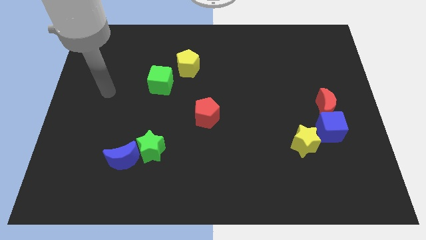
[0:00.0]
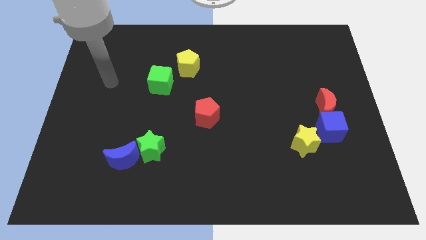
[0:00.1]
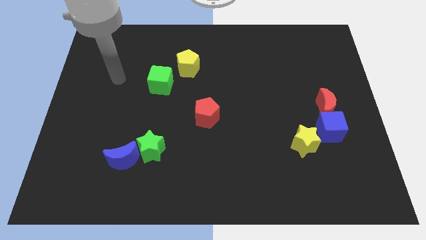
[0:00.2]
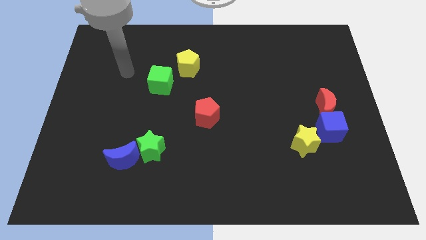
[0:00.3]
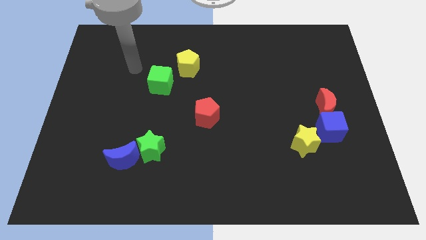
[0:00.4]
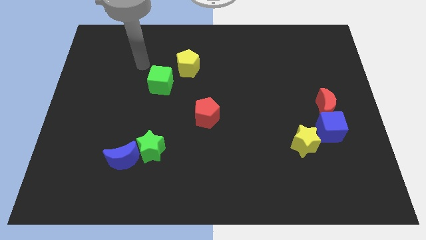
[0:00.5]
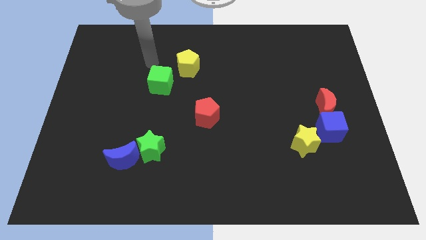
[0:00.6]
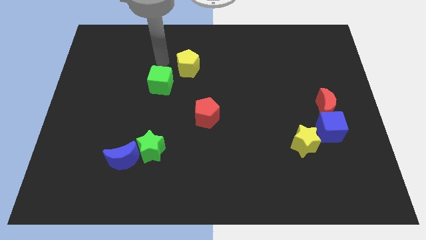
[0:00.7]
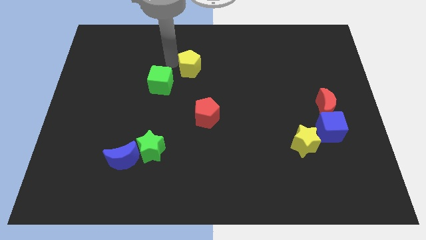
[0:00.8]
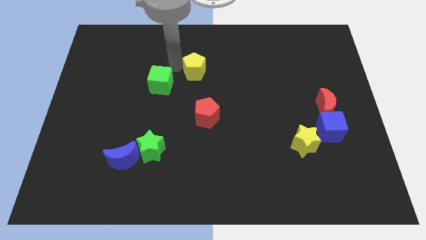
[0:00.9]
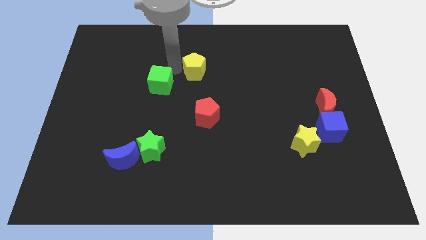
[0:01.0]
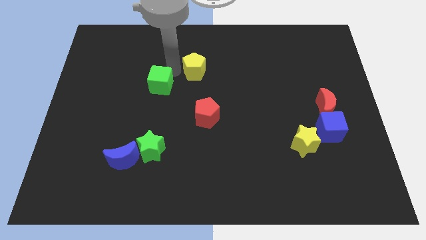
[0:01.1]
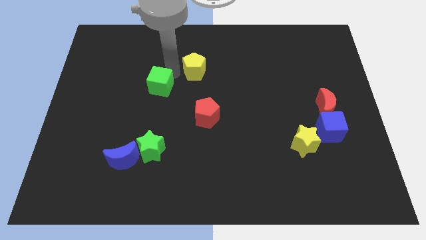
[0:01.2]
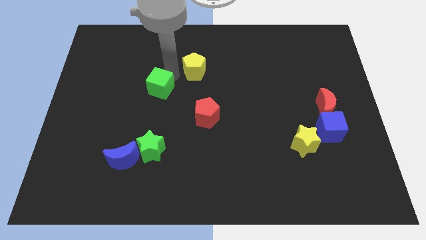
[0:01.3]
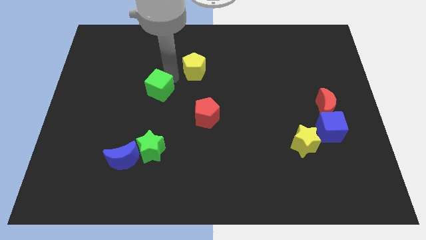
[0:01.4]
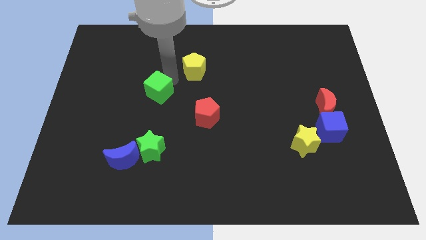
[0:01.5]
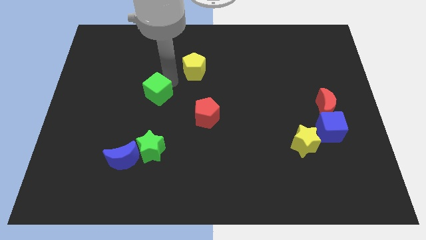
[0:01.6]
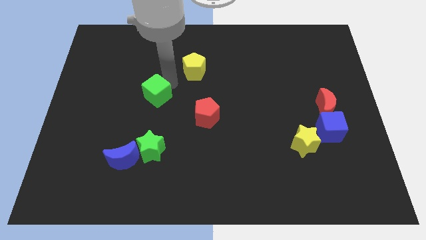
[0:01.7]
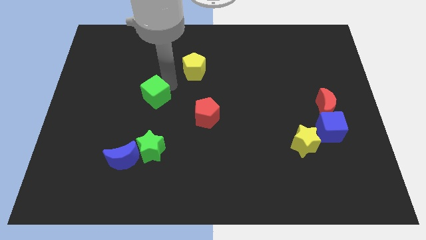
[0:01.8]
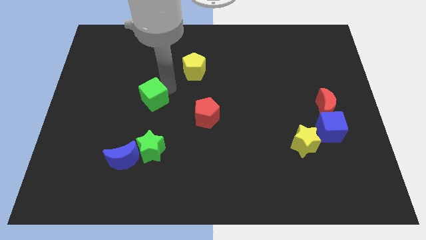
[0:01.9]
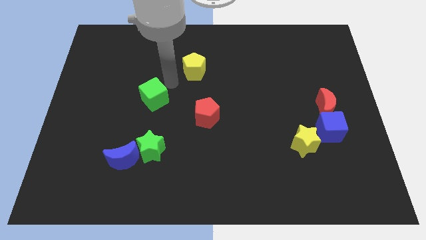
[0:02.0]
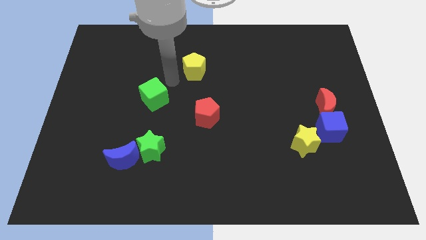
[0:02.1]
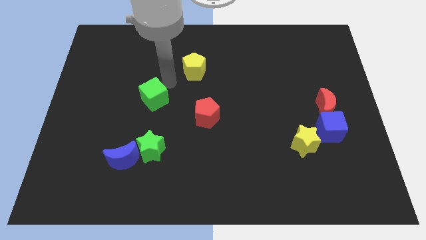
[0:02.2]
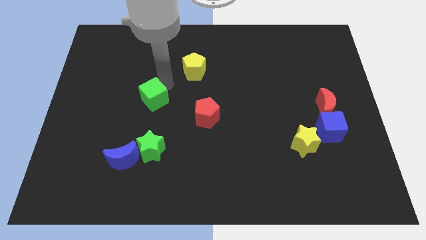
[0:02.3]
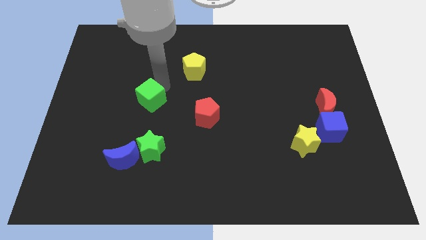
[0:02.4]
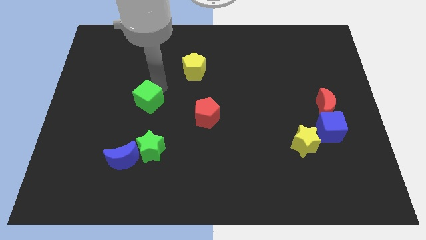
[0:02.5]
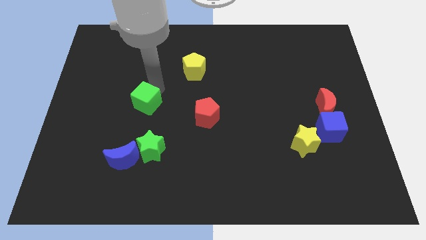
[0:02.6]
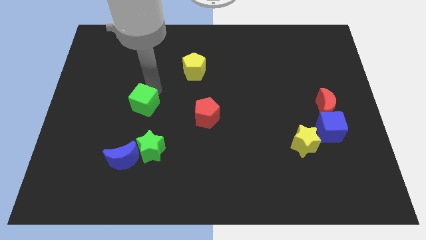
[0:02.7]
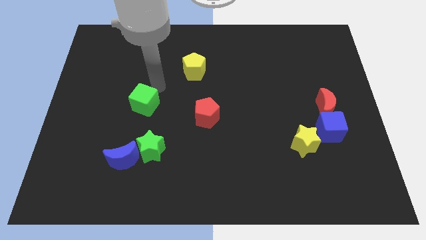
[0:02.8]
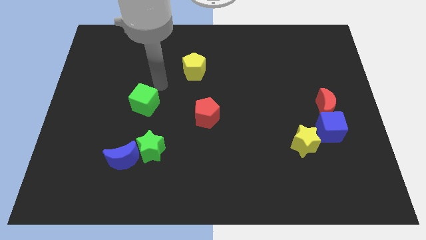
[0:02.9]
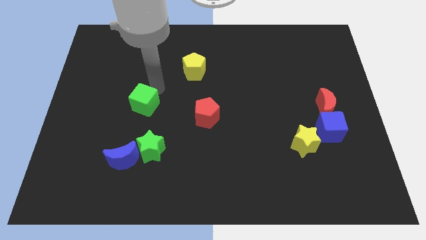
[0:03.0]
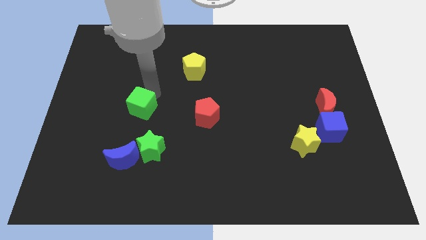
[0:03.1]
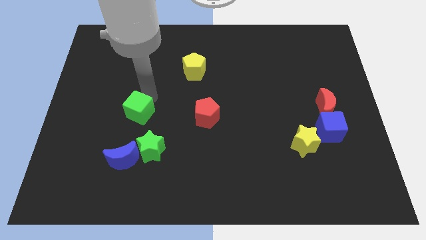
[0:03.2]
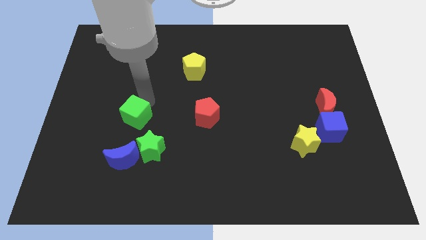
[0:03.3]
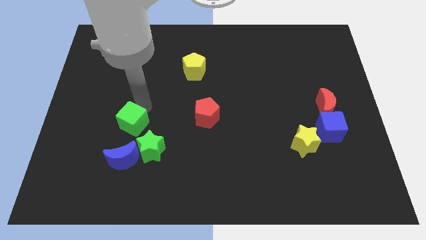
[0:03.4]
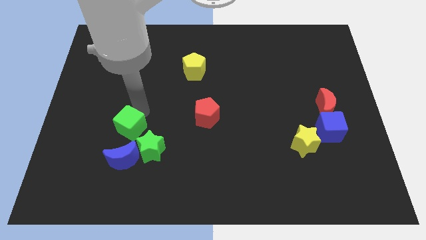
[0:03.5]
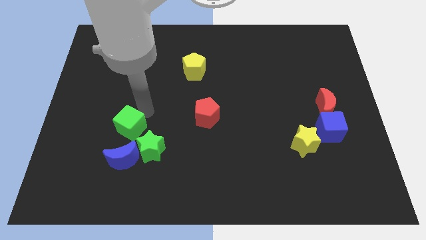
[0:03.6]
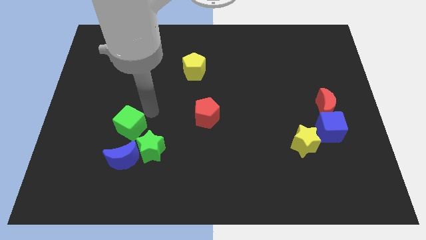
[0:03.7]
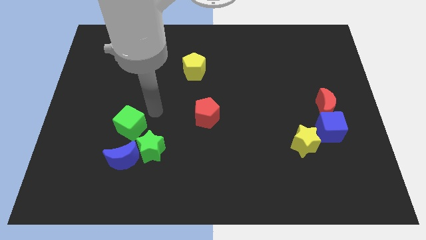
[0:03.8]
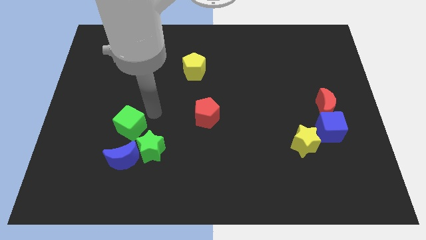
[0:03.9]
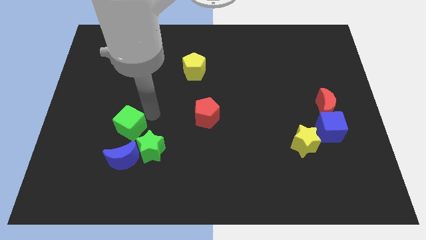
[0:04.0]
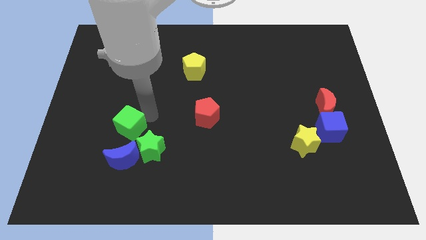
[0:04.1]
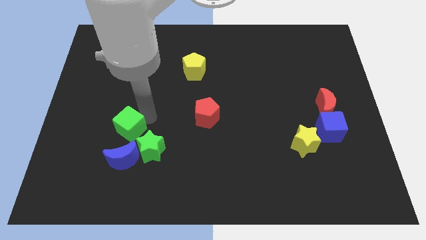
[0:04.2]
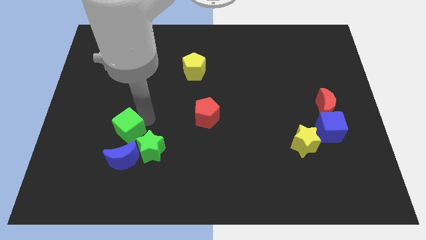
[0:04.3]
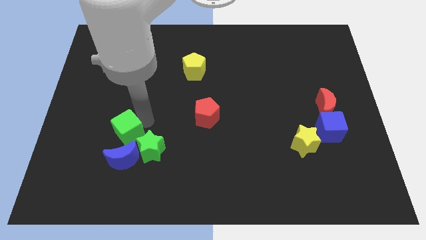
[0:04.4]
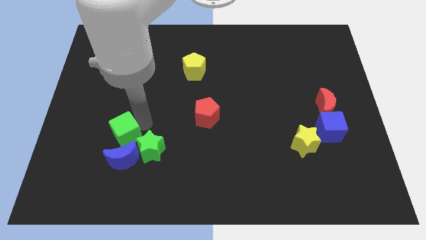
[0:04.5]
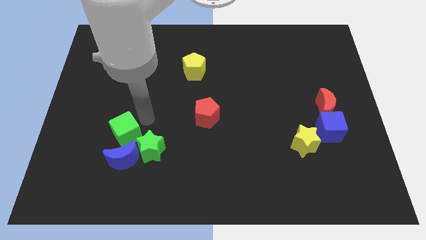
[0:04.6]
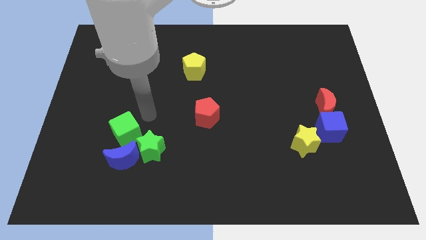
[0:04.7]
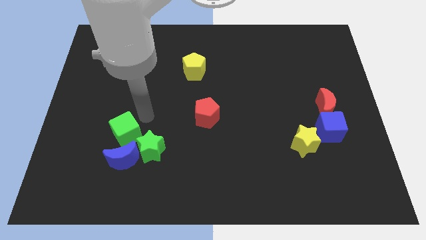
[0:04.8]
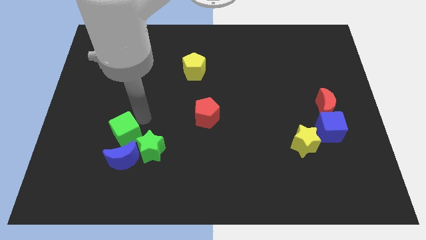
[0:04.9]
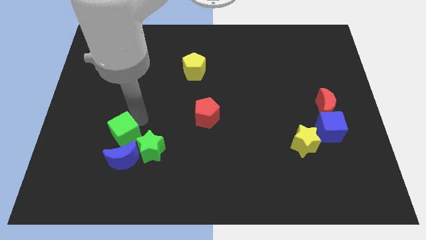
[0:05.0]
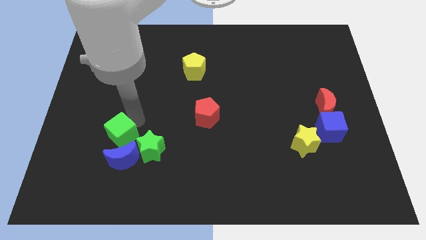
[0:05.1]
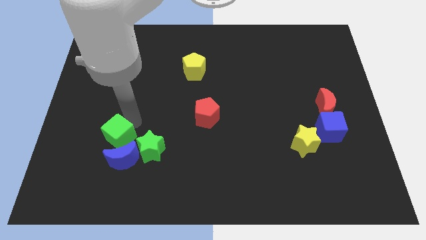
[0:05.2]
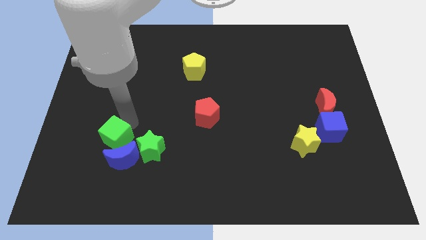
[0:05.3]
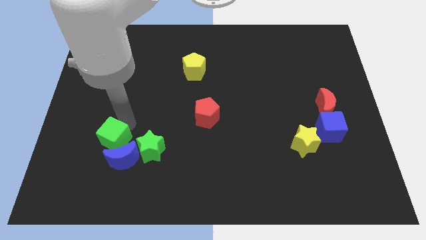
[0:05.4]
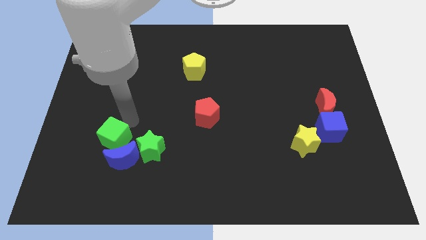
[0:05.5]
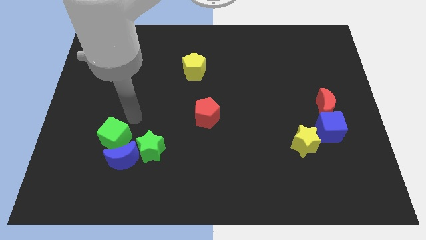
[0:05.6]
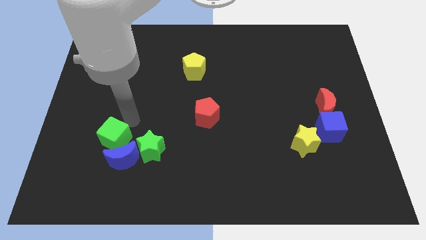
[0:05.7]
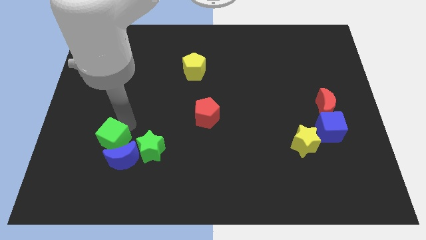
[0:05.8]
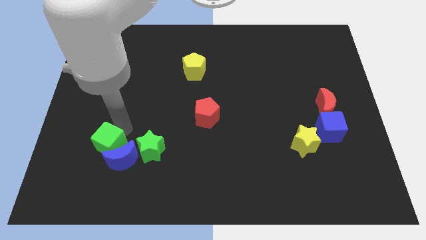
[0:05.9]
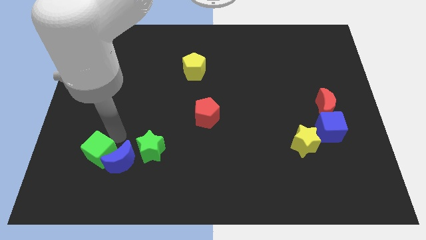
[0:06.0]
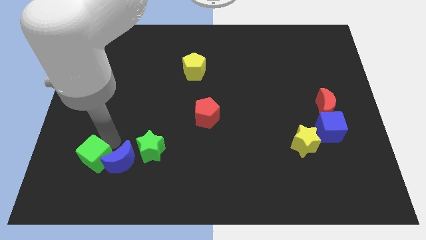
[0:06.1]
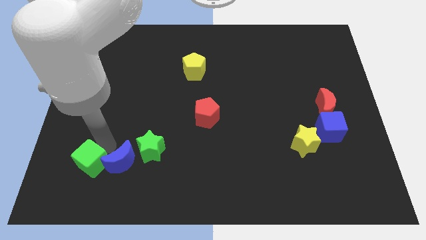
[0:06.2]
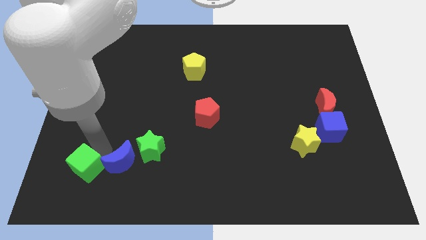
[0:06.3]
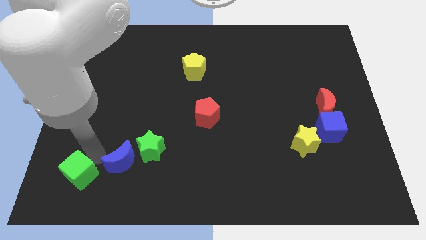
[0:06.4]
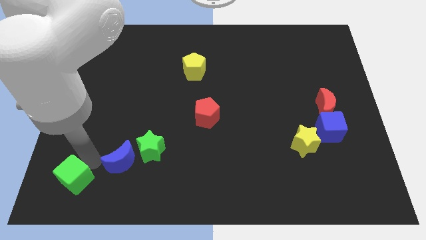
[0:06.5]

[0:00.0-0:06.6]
slide the green cube to the bottom left corner
